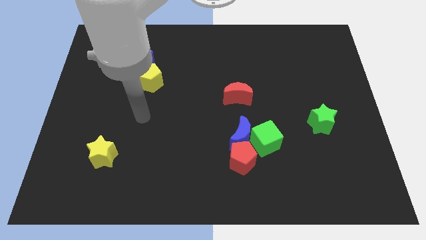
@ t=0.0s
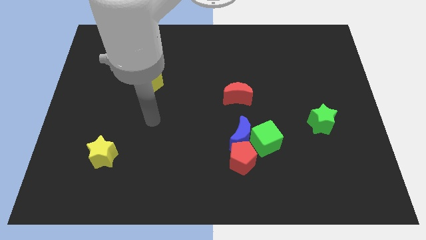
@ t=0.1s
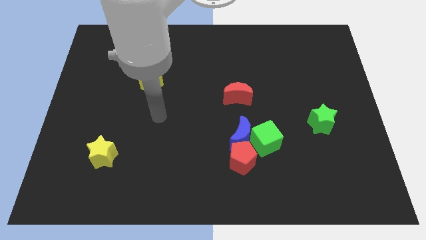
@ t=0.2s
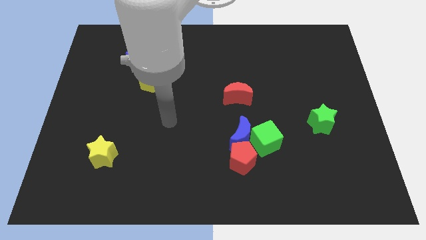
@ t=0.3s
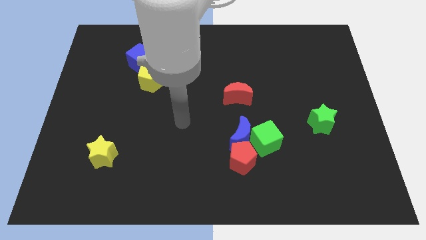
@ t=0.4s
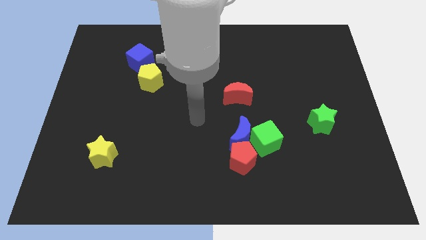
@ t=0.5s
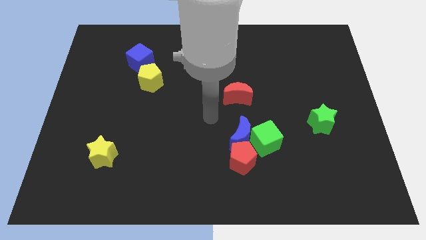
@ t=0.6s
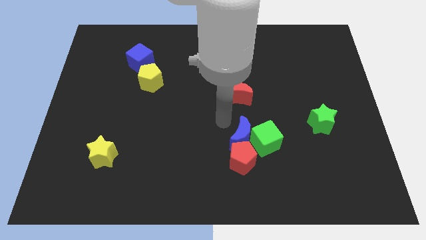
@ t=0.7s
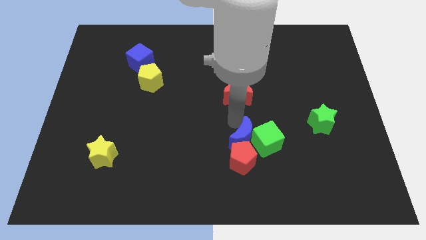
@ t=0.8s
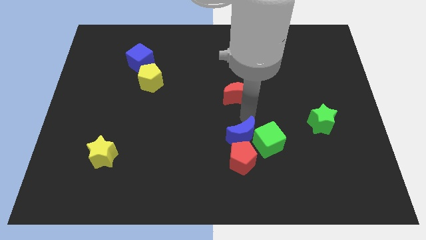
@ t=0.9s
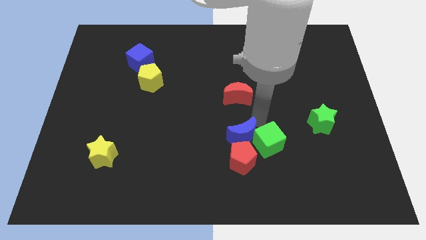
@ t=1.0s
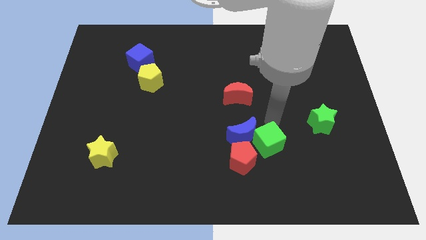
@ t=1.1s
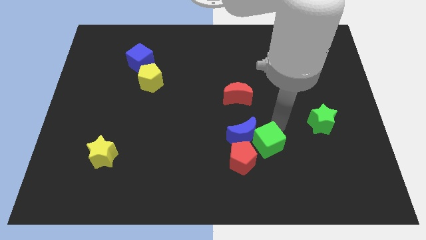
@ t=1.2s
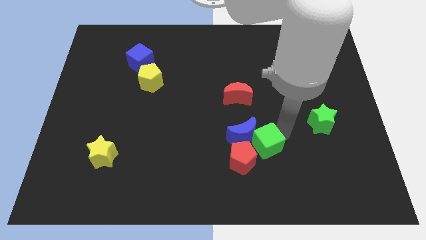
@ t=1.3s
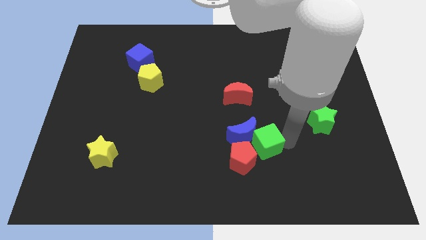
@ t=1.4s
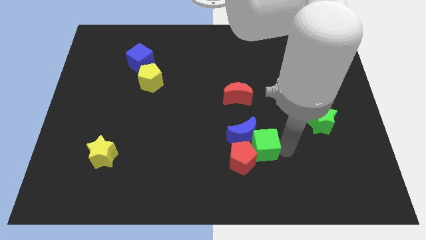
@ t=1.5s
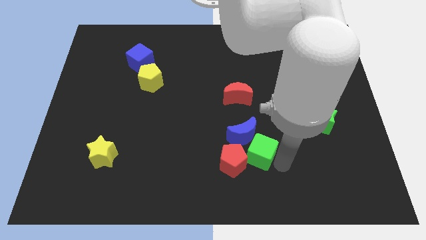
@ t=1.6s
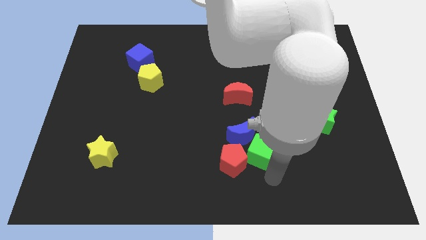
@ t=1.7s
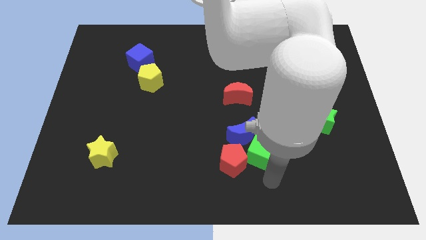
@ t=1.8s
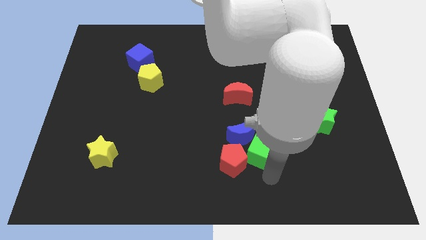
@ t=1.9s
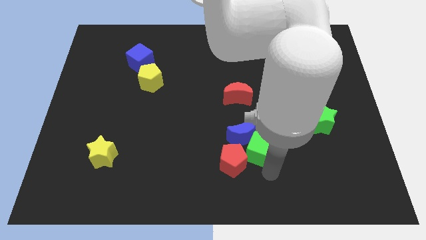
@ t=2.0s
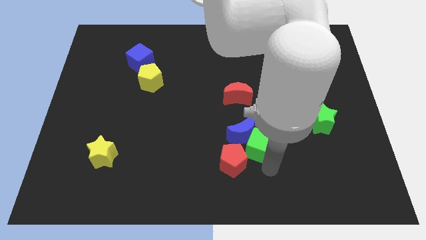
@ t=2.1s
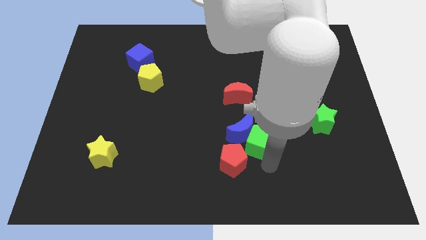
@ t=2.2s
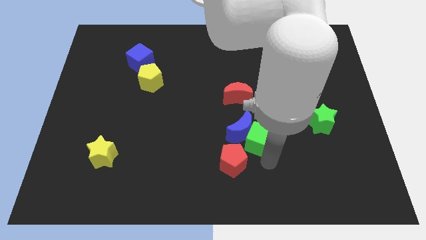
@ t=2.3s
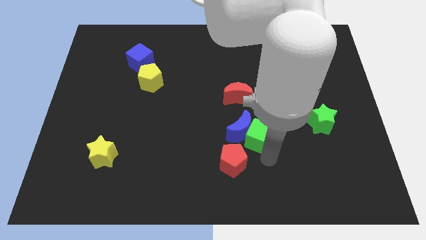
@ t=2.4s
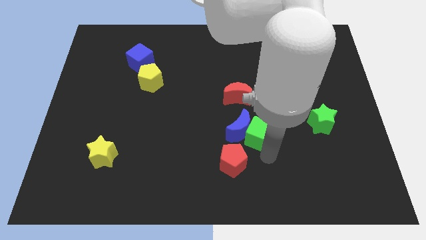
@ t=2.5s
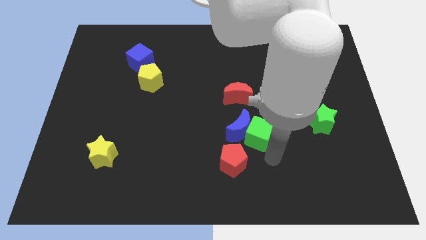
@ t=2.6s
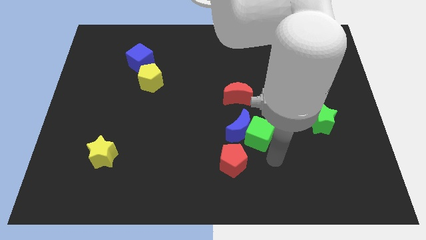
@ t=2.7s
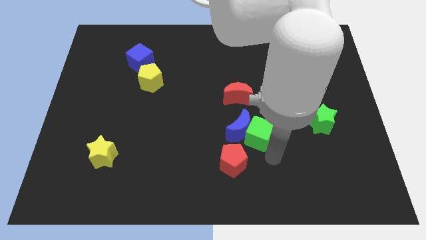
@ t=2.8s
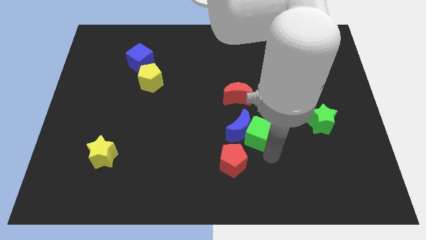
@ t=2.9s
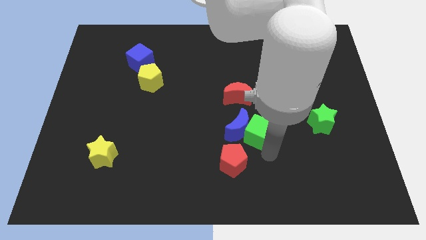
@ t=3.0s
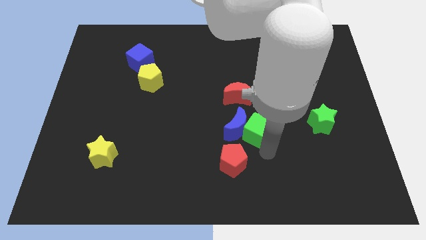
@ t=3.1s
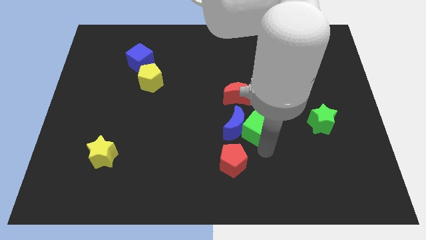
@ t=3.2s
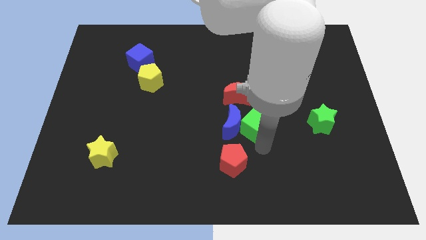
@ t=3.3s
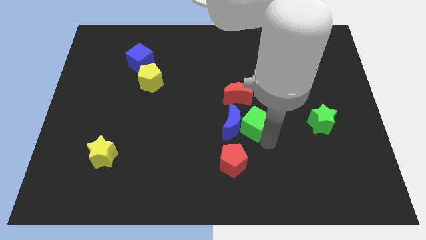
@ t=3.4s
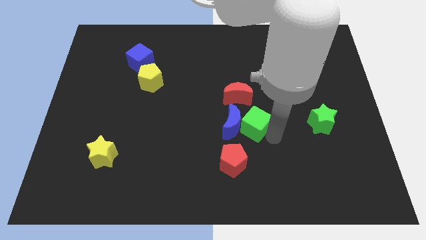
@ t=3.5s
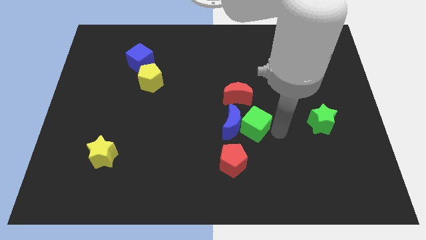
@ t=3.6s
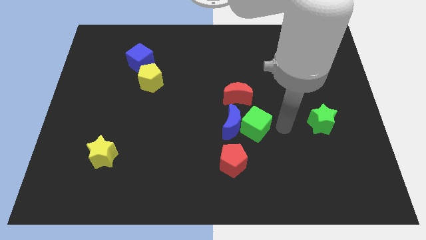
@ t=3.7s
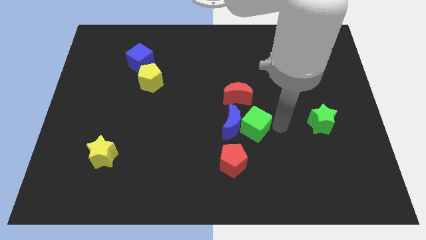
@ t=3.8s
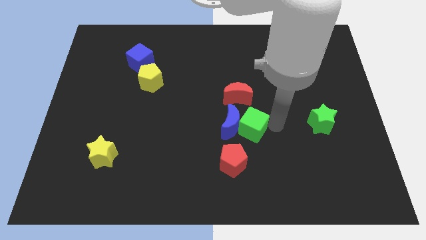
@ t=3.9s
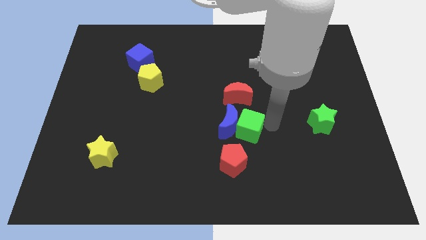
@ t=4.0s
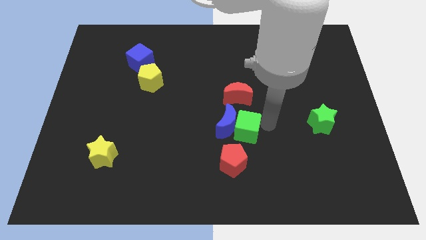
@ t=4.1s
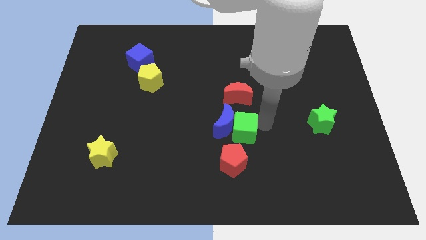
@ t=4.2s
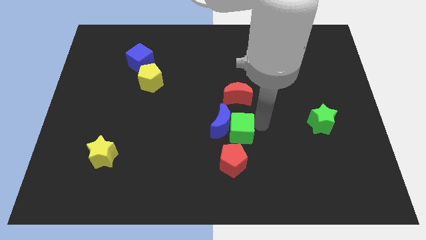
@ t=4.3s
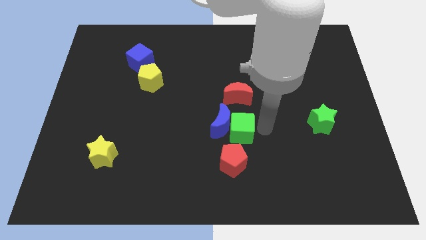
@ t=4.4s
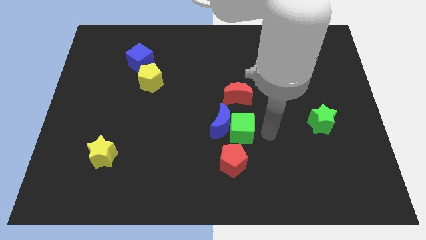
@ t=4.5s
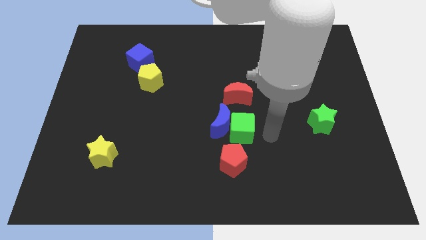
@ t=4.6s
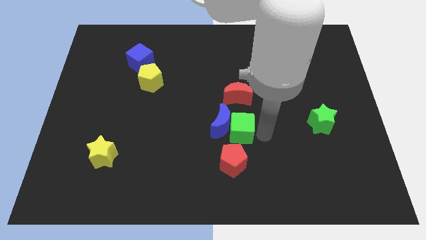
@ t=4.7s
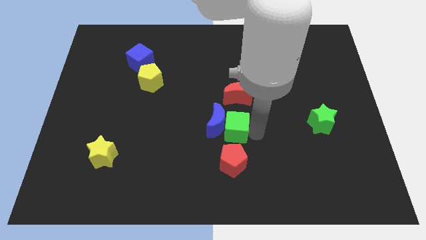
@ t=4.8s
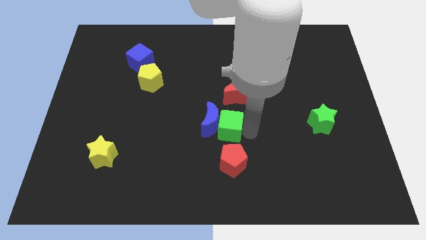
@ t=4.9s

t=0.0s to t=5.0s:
slightly slide the green cube to the left

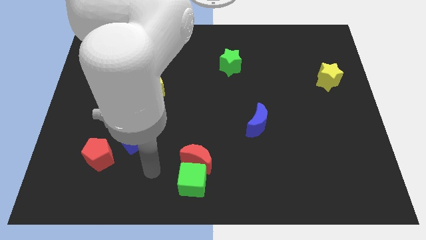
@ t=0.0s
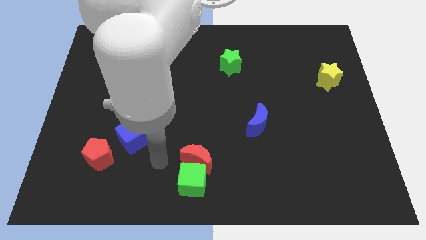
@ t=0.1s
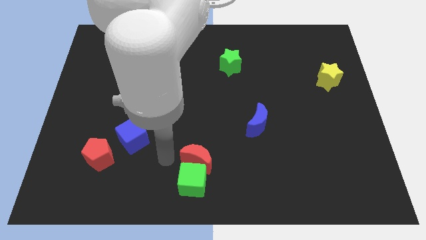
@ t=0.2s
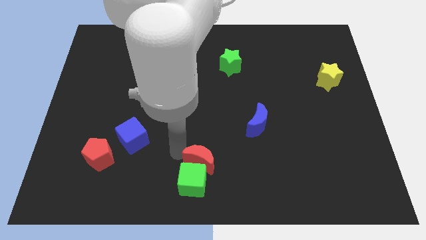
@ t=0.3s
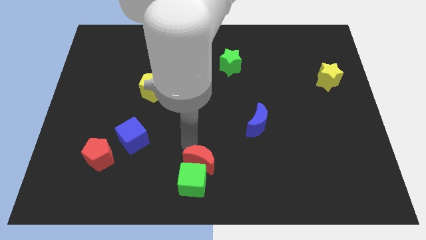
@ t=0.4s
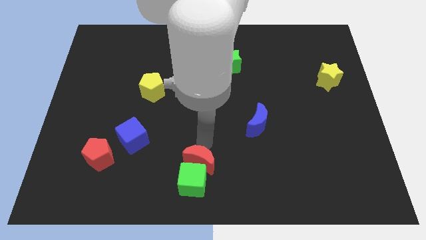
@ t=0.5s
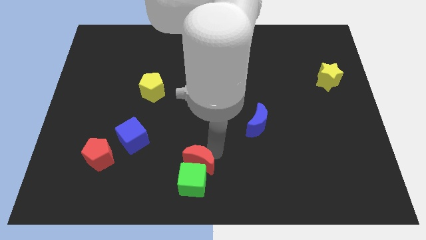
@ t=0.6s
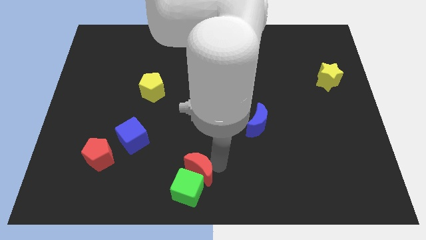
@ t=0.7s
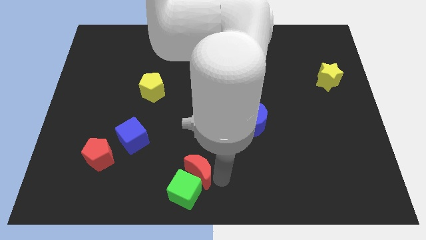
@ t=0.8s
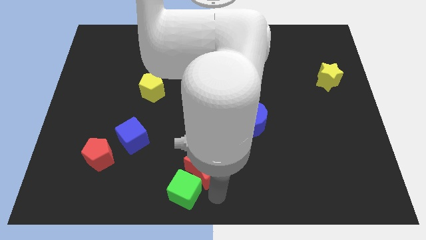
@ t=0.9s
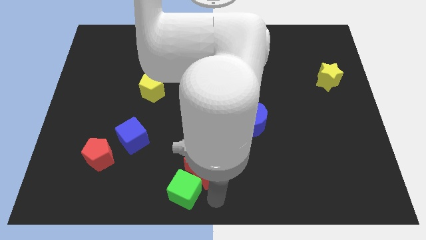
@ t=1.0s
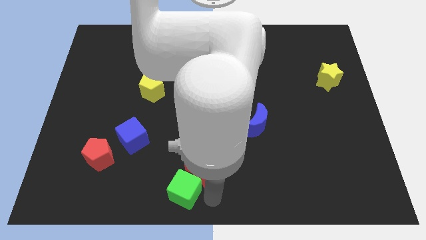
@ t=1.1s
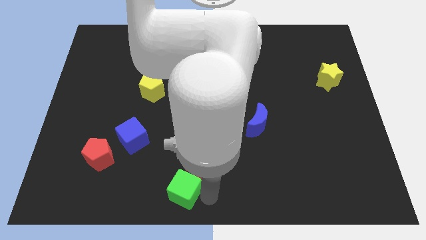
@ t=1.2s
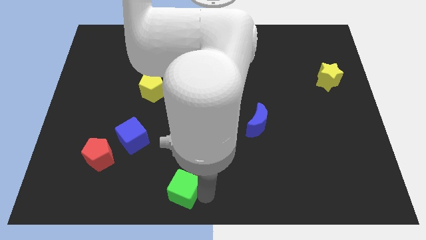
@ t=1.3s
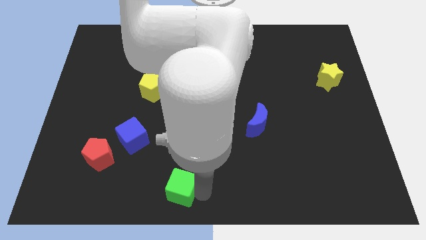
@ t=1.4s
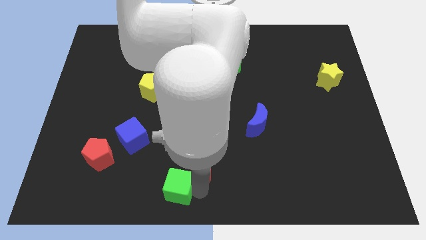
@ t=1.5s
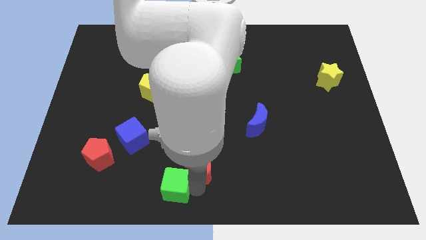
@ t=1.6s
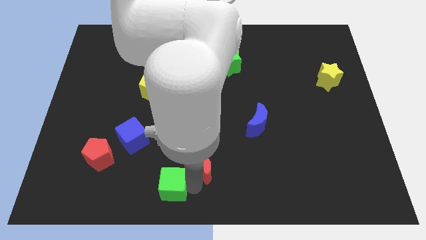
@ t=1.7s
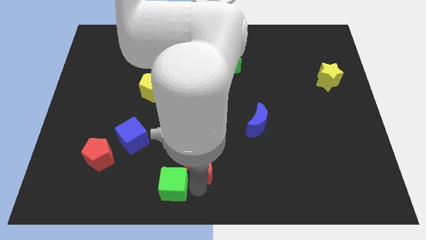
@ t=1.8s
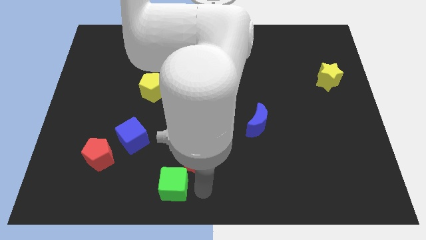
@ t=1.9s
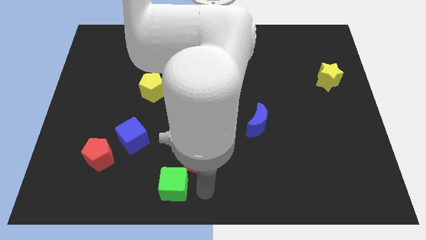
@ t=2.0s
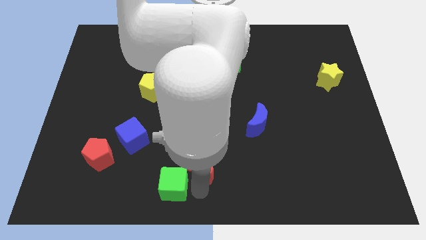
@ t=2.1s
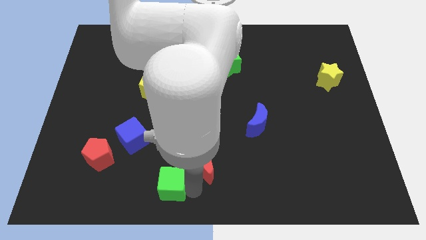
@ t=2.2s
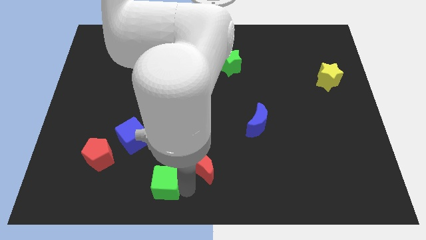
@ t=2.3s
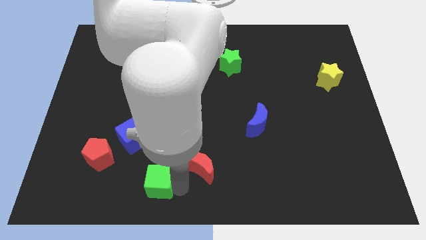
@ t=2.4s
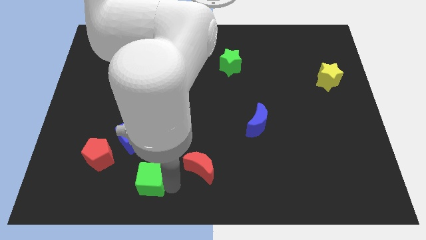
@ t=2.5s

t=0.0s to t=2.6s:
slide the green cube a bit to the left

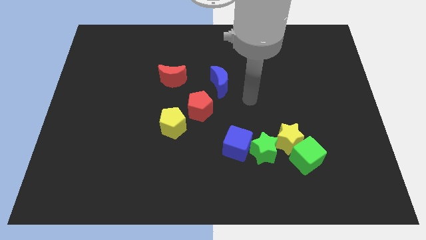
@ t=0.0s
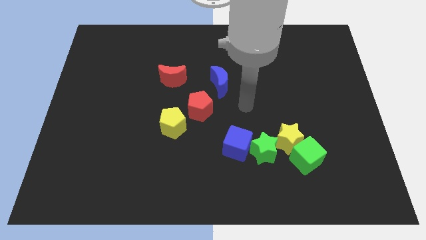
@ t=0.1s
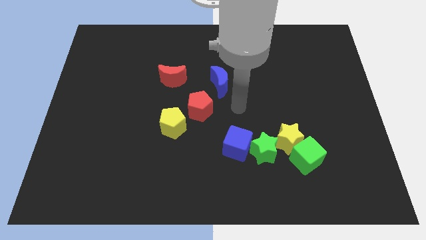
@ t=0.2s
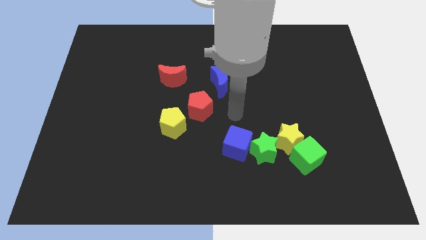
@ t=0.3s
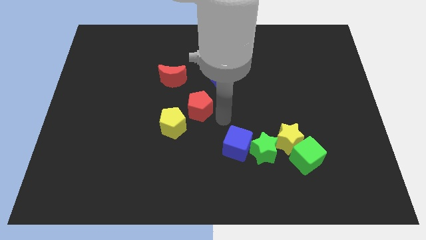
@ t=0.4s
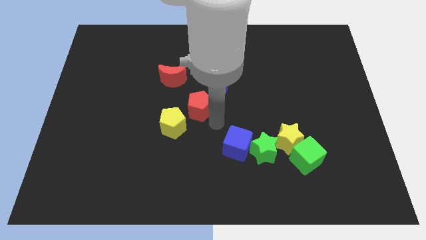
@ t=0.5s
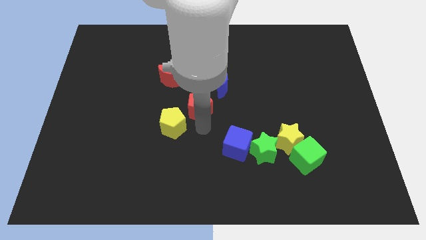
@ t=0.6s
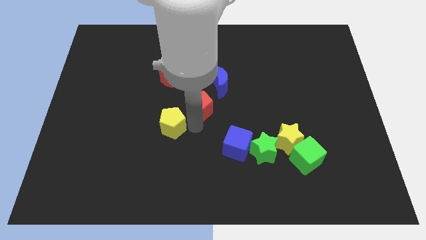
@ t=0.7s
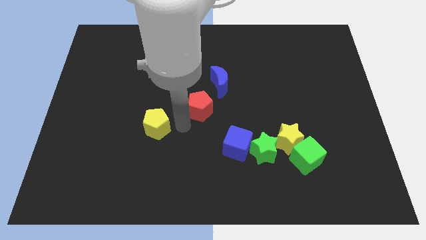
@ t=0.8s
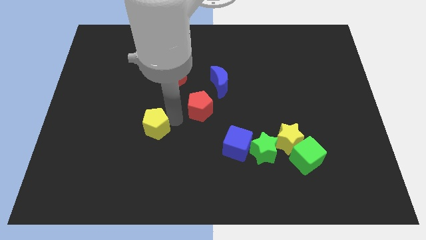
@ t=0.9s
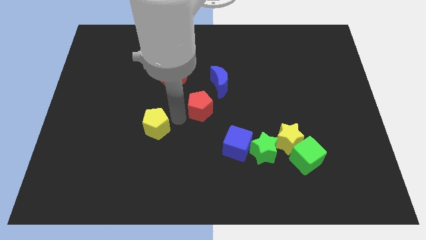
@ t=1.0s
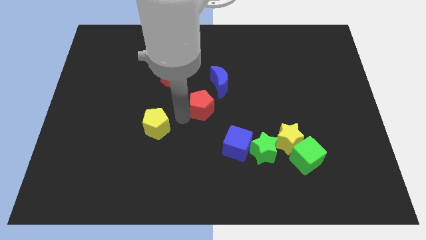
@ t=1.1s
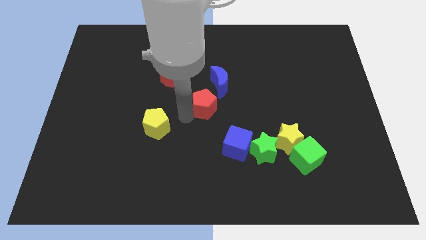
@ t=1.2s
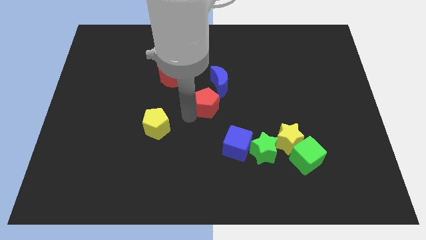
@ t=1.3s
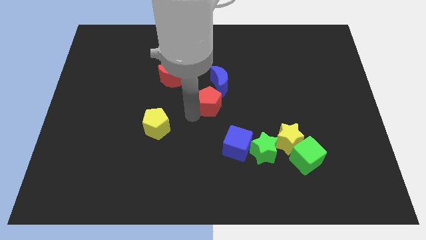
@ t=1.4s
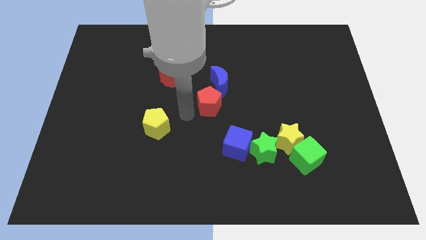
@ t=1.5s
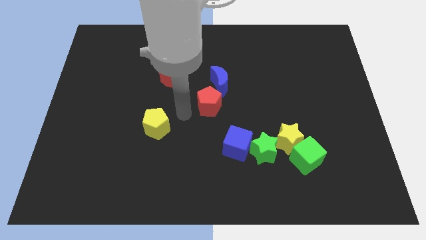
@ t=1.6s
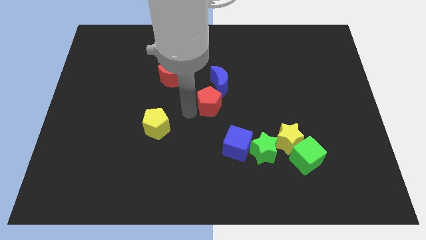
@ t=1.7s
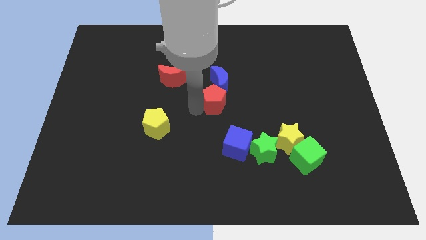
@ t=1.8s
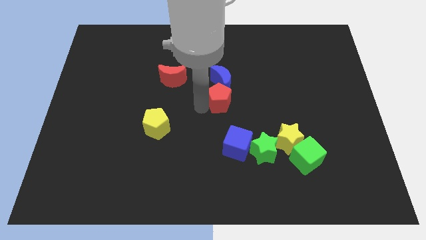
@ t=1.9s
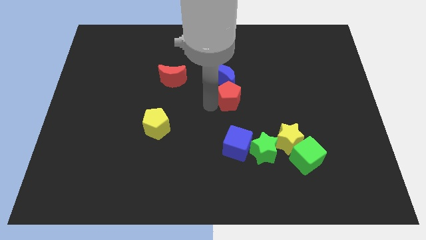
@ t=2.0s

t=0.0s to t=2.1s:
move the red pentagon diagonally upwards and to the right a little
